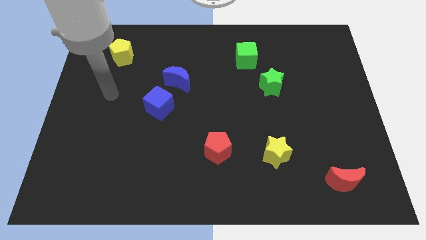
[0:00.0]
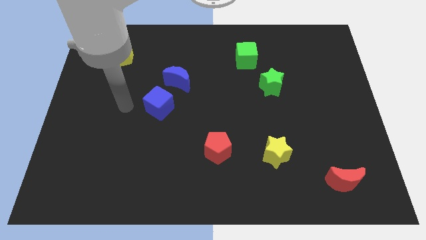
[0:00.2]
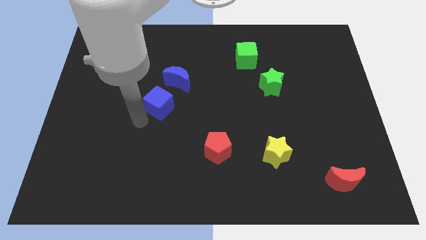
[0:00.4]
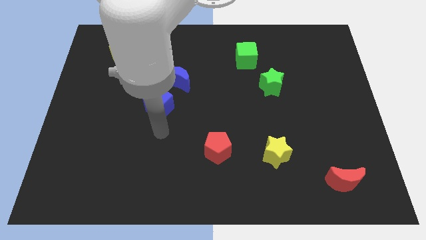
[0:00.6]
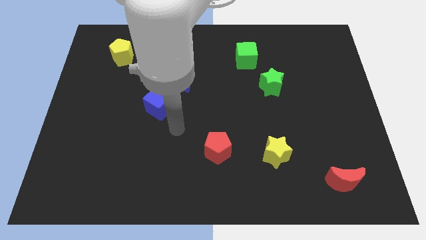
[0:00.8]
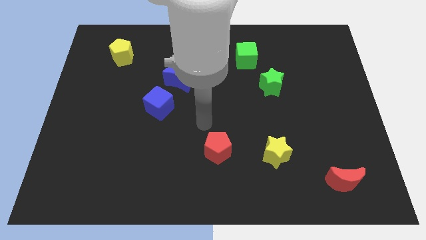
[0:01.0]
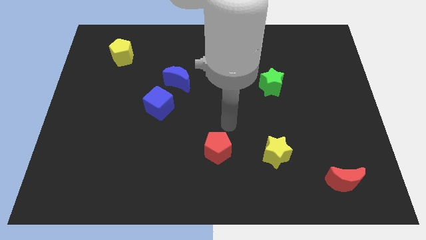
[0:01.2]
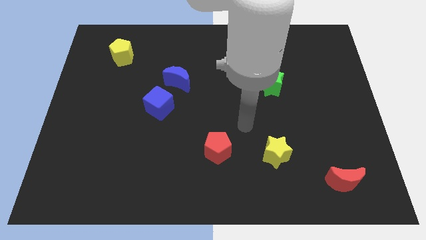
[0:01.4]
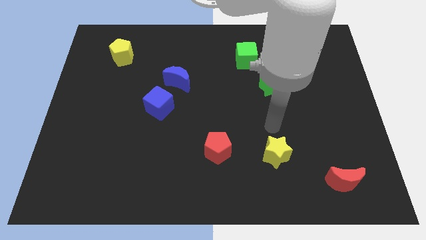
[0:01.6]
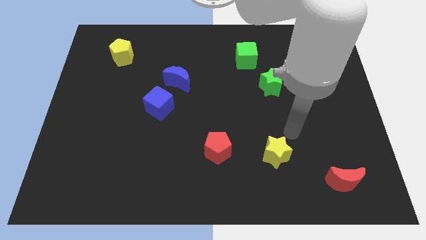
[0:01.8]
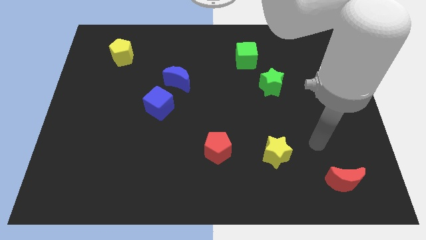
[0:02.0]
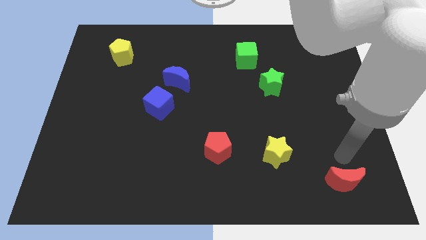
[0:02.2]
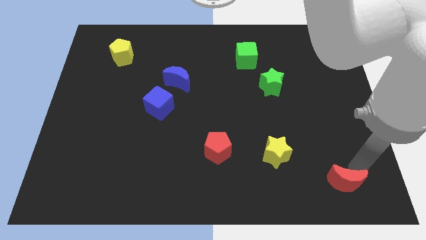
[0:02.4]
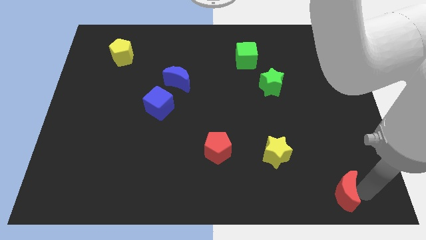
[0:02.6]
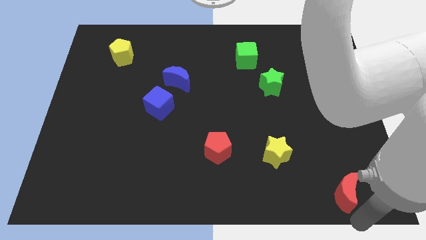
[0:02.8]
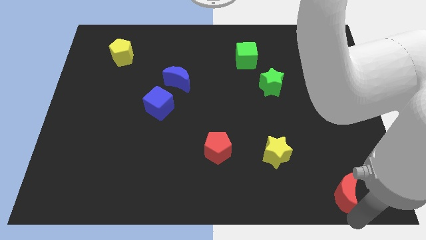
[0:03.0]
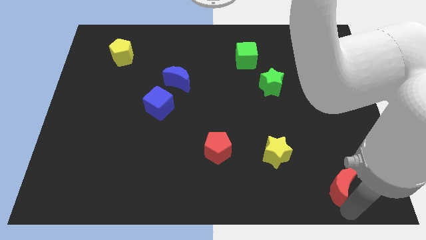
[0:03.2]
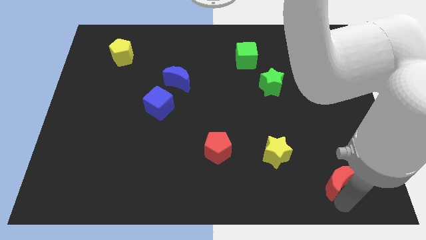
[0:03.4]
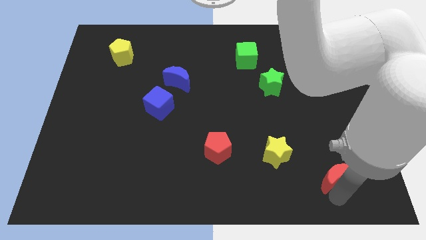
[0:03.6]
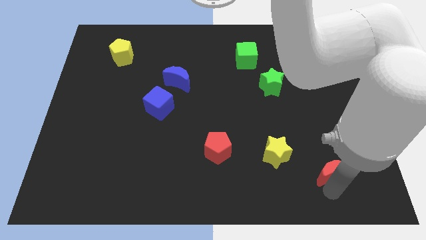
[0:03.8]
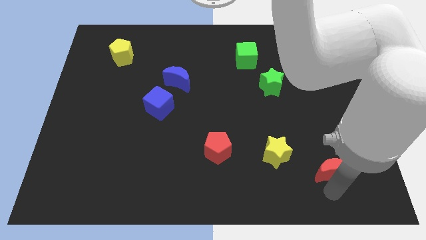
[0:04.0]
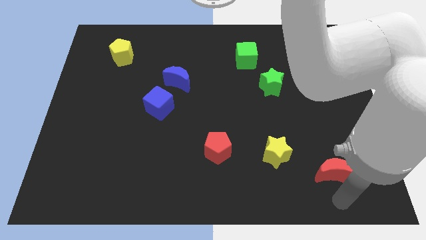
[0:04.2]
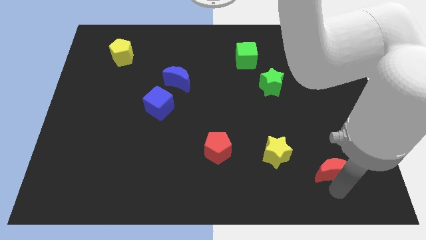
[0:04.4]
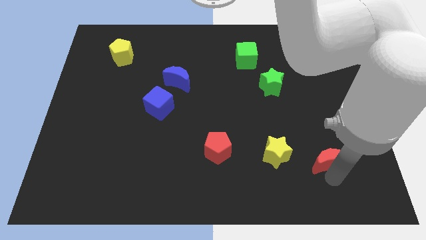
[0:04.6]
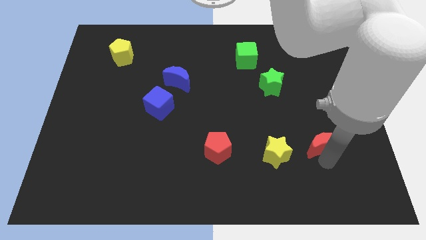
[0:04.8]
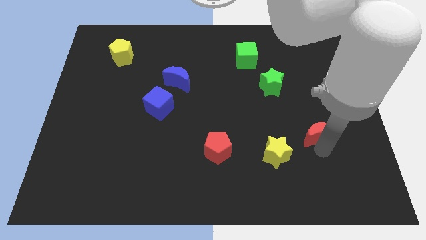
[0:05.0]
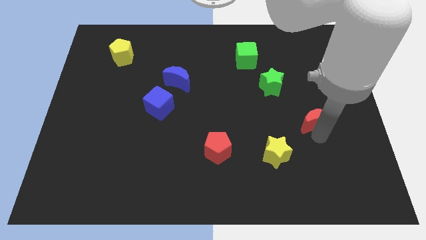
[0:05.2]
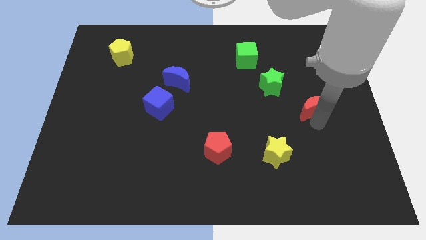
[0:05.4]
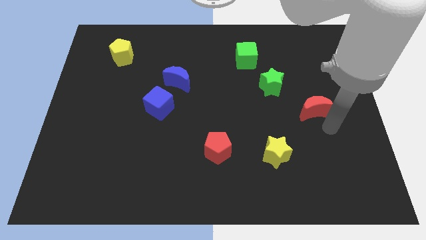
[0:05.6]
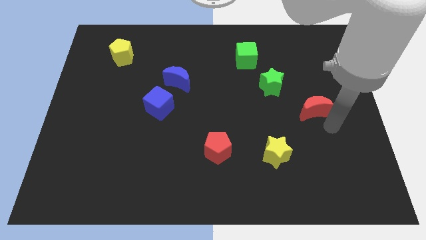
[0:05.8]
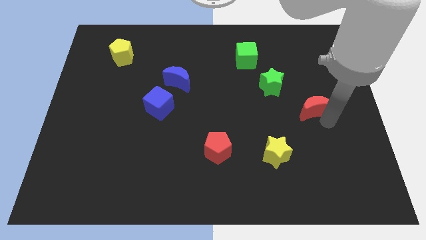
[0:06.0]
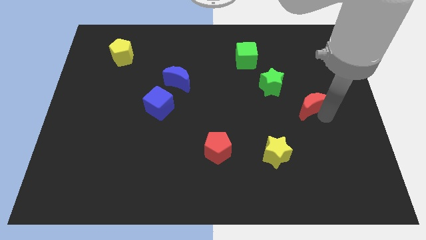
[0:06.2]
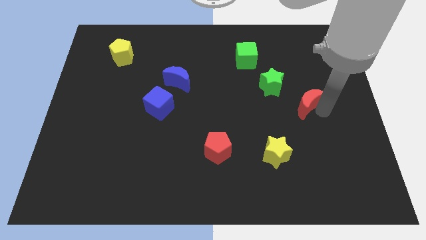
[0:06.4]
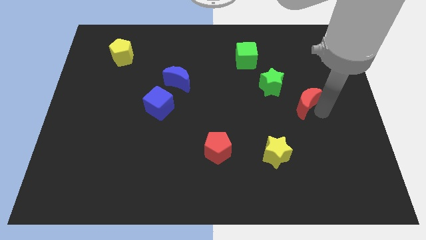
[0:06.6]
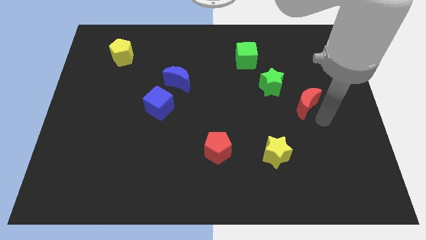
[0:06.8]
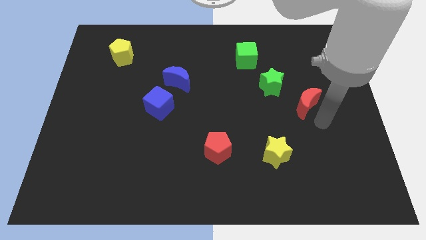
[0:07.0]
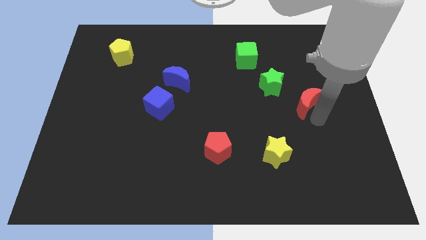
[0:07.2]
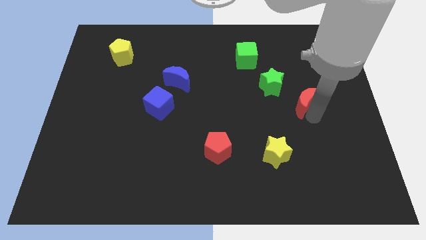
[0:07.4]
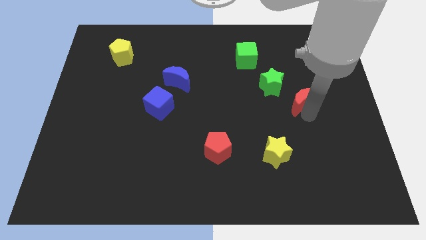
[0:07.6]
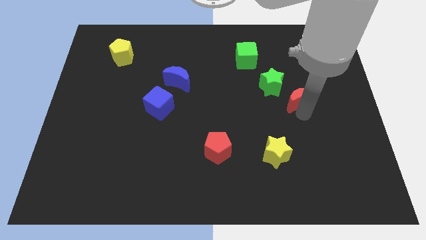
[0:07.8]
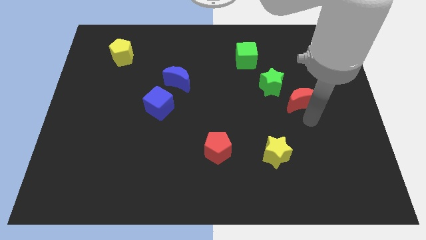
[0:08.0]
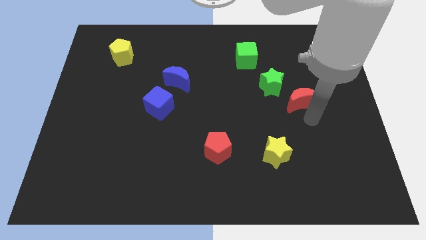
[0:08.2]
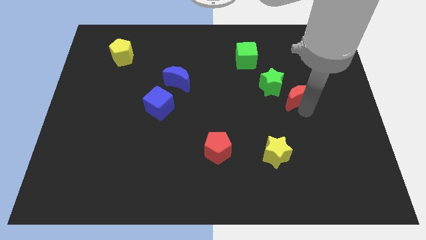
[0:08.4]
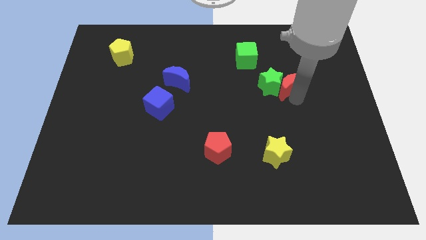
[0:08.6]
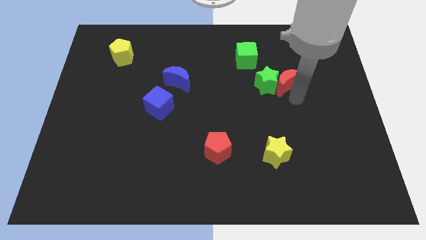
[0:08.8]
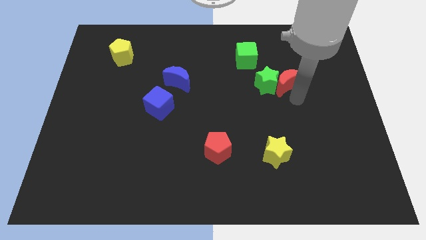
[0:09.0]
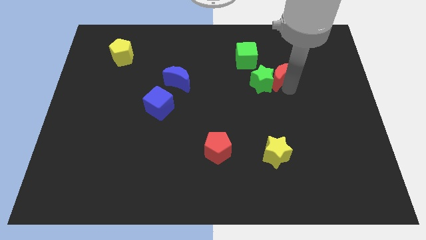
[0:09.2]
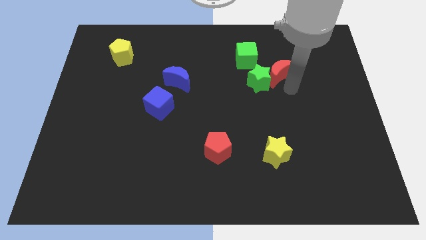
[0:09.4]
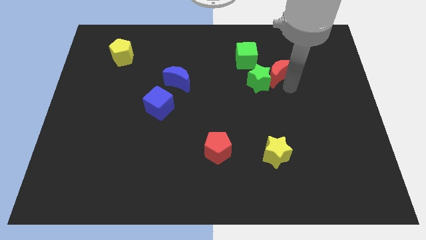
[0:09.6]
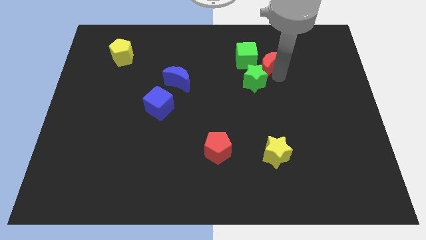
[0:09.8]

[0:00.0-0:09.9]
move the red moon to the top of the green star

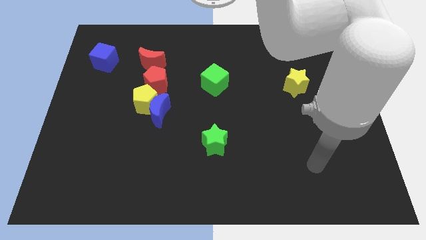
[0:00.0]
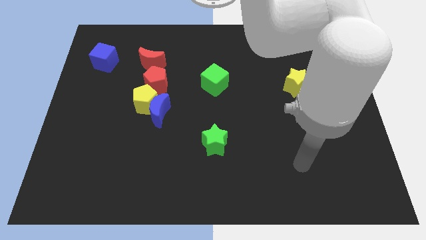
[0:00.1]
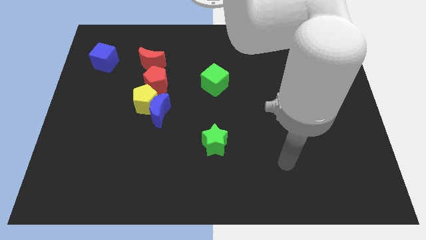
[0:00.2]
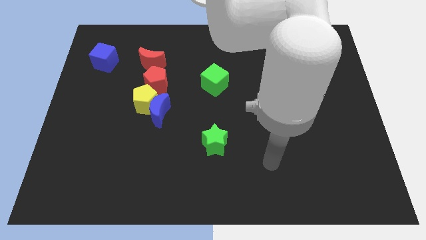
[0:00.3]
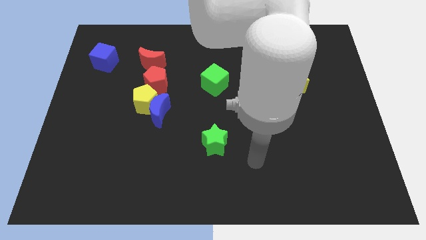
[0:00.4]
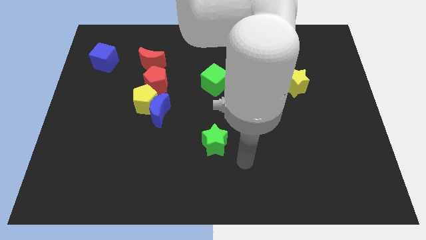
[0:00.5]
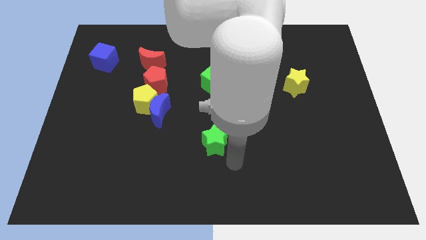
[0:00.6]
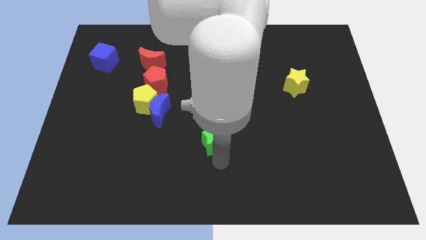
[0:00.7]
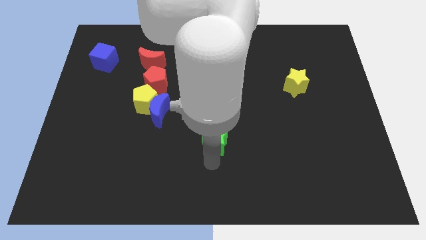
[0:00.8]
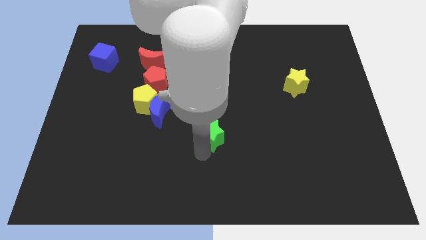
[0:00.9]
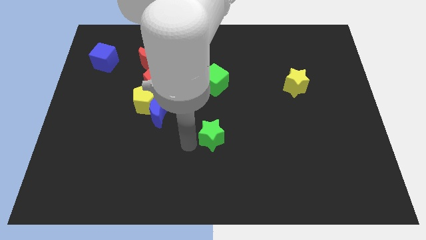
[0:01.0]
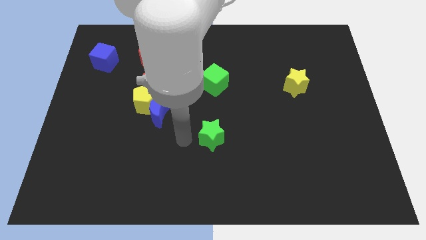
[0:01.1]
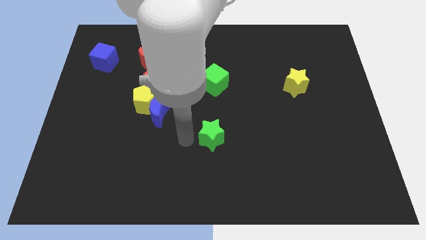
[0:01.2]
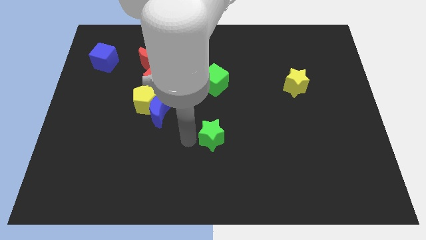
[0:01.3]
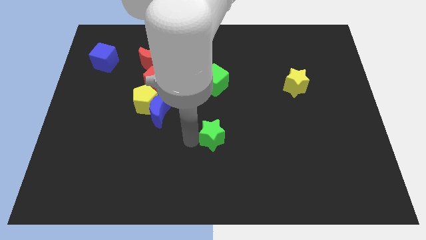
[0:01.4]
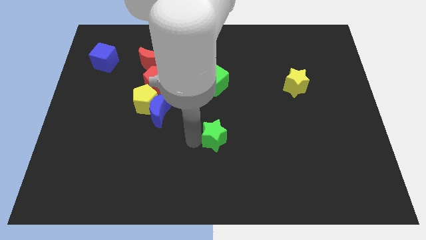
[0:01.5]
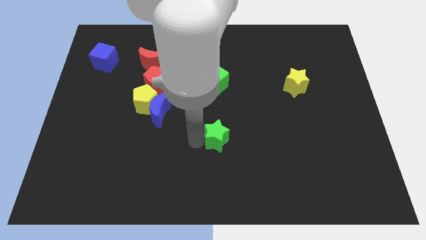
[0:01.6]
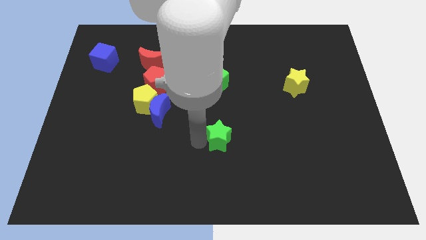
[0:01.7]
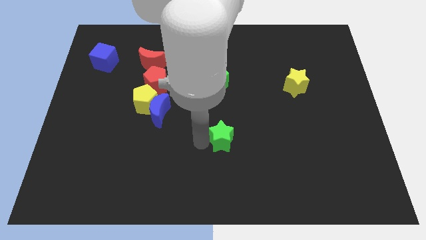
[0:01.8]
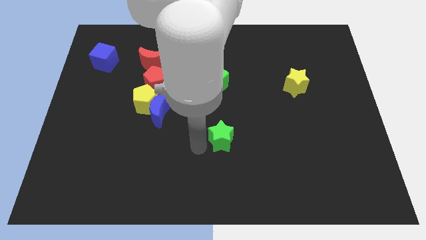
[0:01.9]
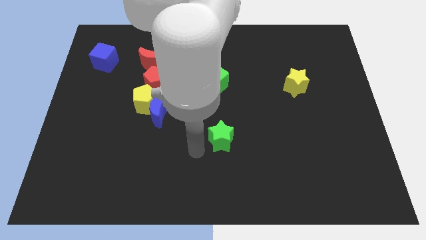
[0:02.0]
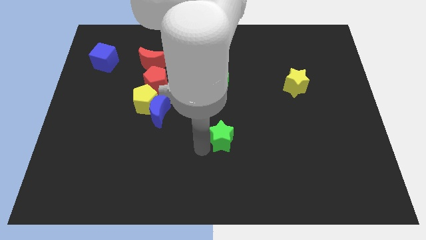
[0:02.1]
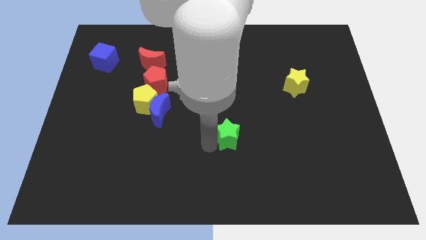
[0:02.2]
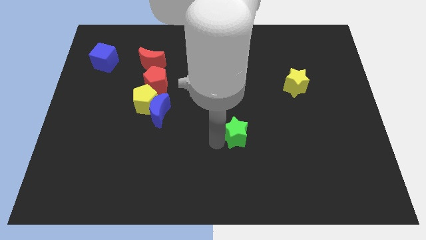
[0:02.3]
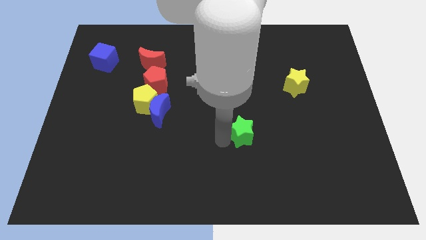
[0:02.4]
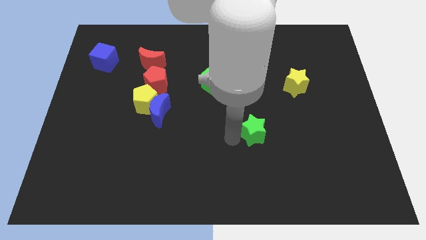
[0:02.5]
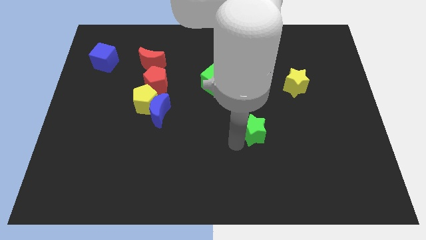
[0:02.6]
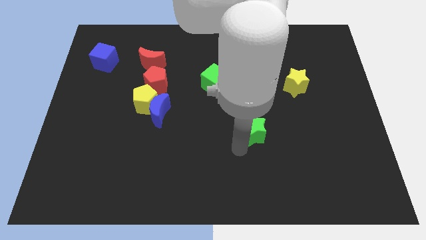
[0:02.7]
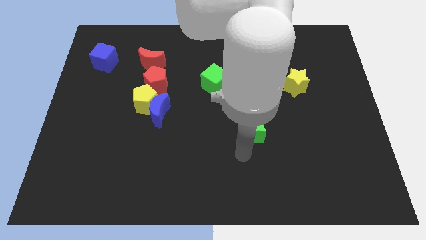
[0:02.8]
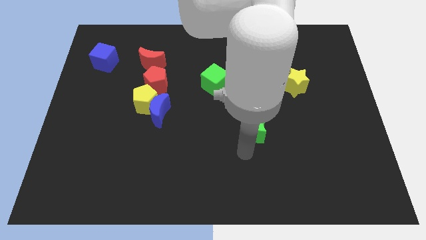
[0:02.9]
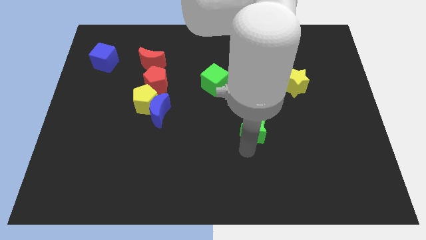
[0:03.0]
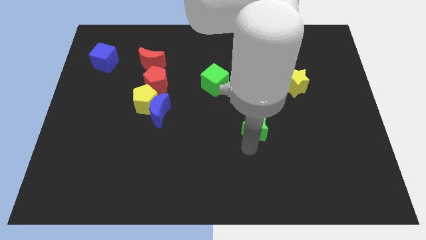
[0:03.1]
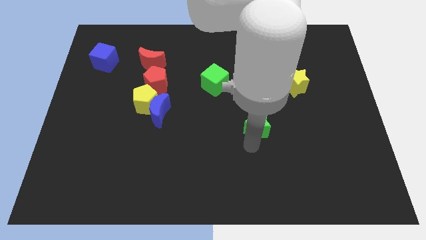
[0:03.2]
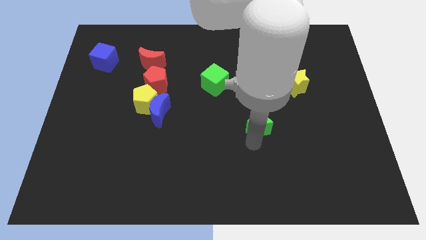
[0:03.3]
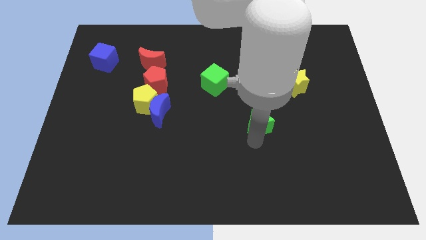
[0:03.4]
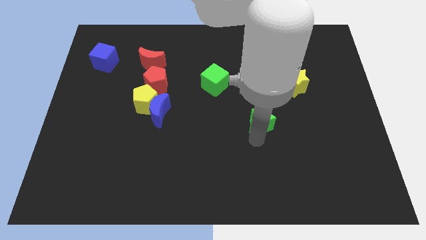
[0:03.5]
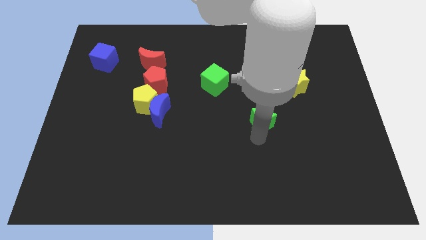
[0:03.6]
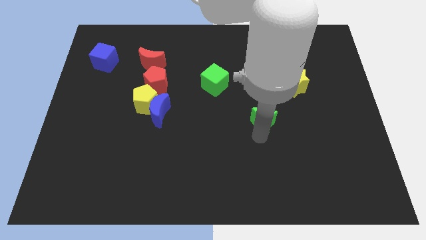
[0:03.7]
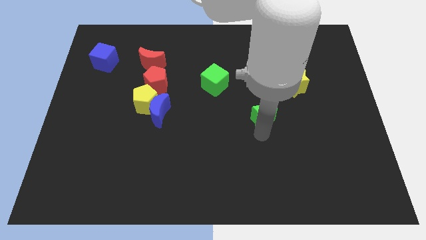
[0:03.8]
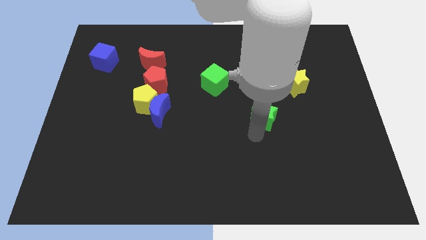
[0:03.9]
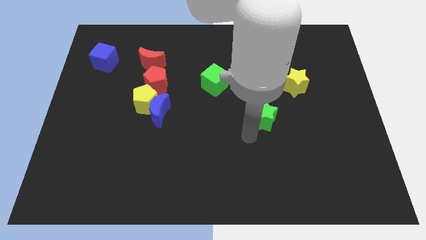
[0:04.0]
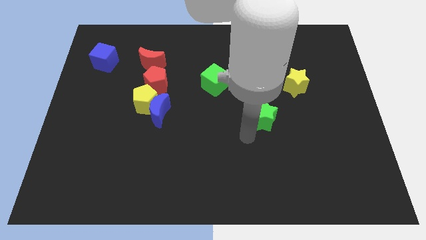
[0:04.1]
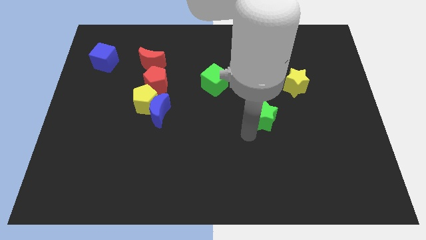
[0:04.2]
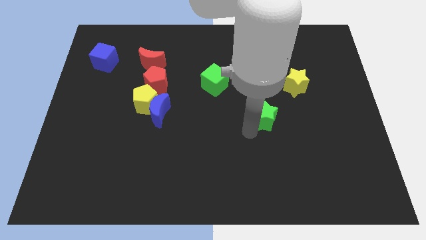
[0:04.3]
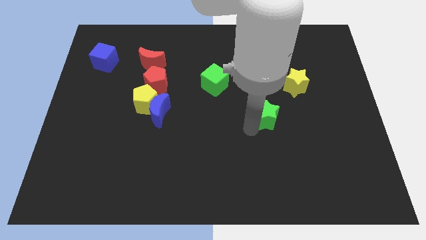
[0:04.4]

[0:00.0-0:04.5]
push the green star to the bottom left side of the yellow star
